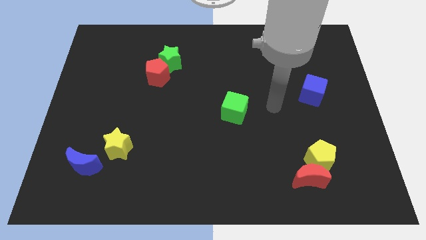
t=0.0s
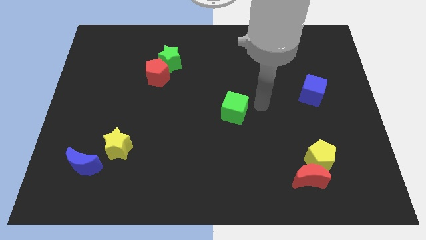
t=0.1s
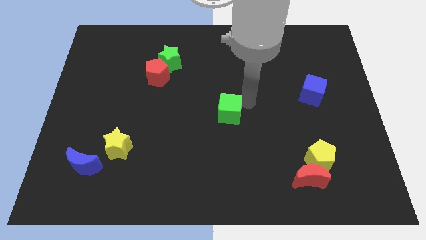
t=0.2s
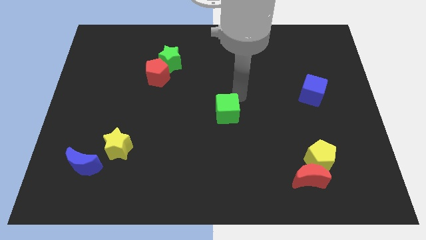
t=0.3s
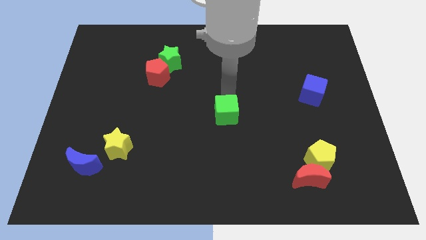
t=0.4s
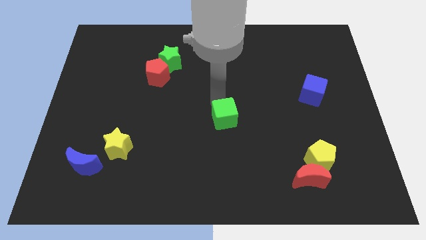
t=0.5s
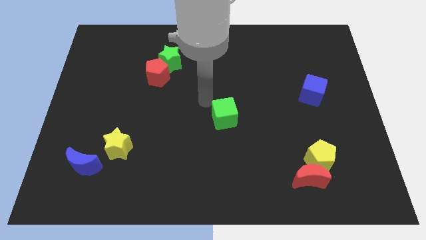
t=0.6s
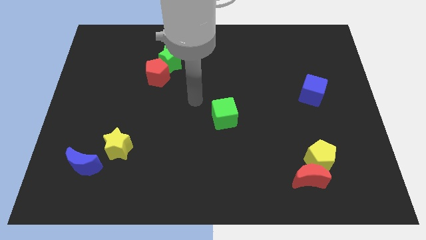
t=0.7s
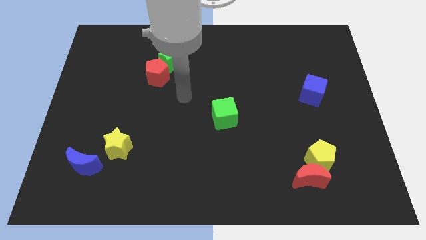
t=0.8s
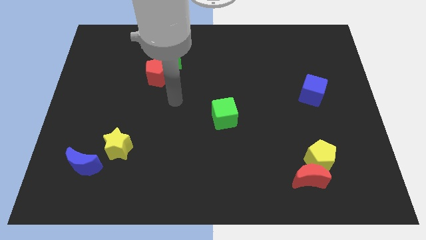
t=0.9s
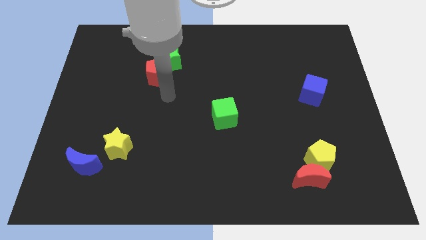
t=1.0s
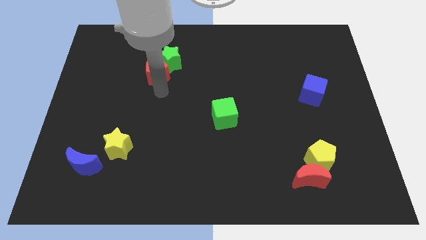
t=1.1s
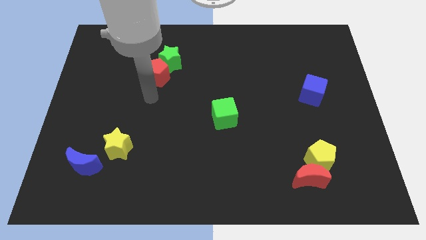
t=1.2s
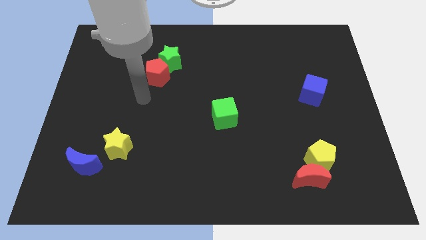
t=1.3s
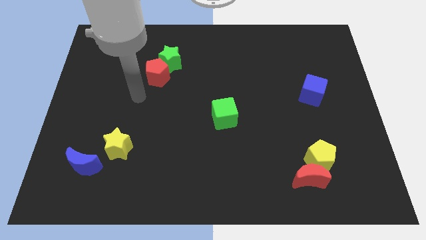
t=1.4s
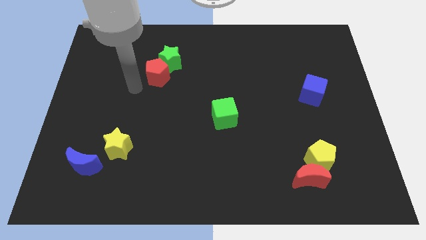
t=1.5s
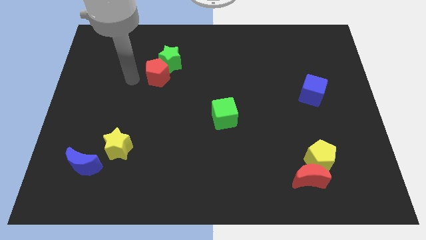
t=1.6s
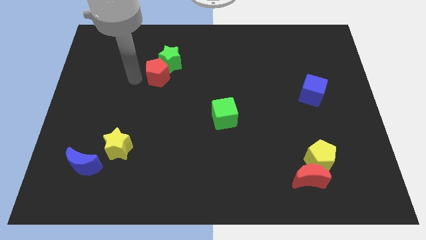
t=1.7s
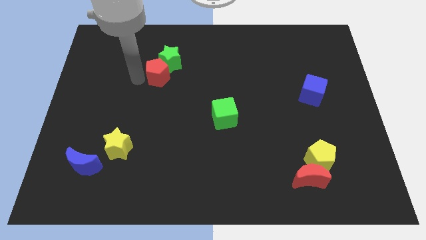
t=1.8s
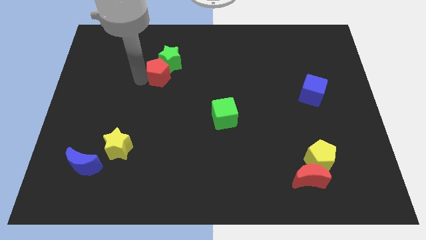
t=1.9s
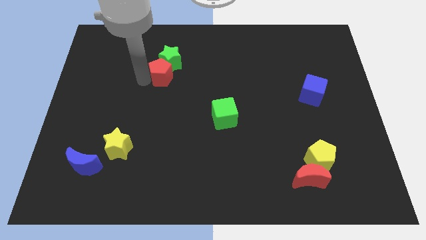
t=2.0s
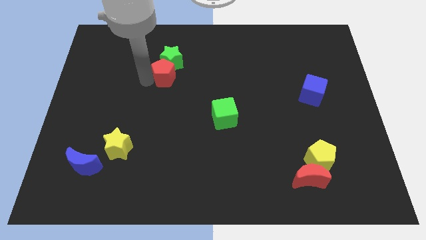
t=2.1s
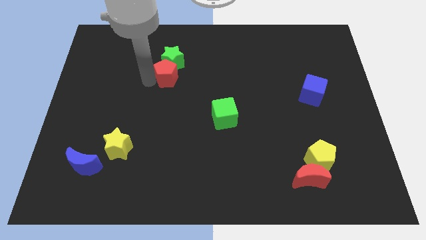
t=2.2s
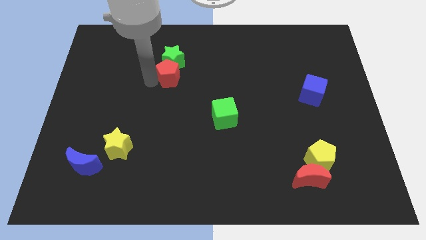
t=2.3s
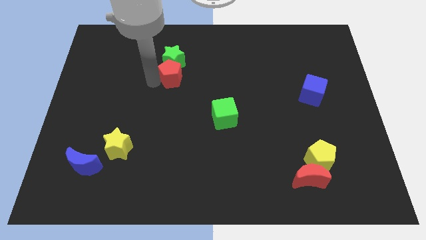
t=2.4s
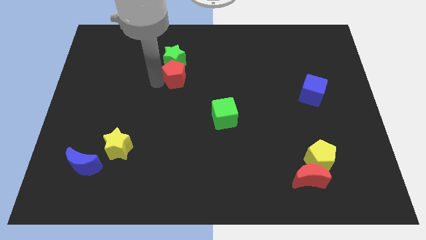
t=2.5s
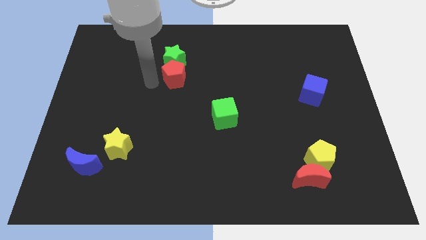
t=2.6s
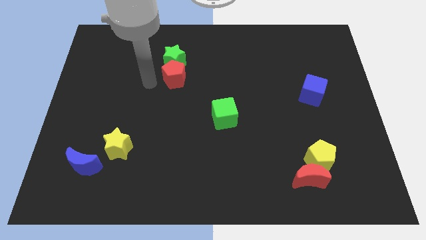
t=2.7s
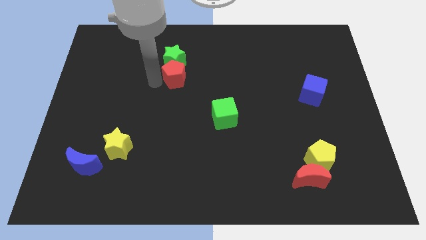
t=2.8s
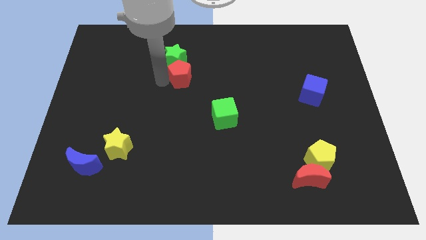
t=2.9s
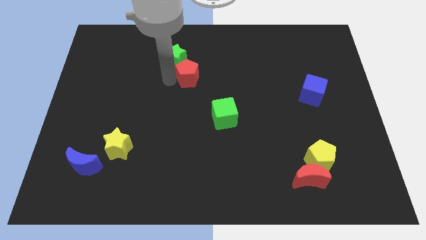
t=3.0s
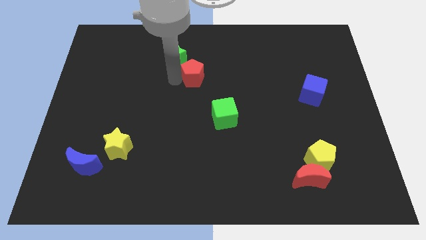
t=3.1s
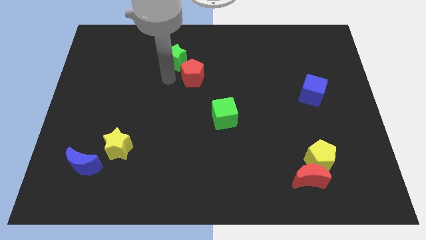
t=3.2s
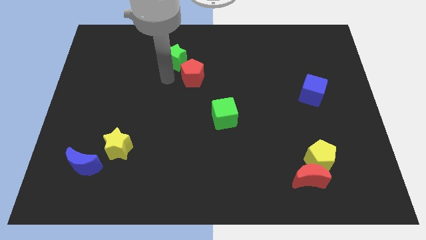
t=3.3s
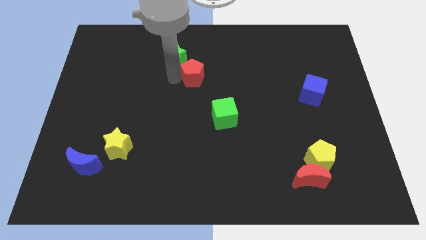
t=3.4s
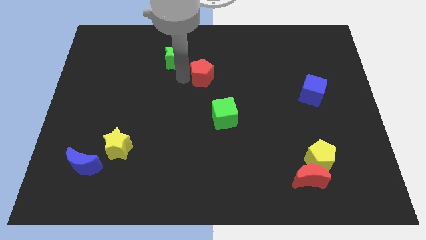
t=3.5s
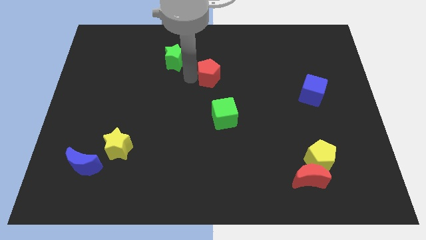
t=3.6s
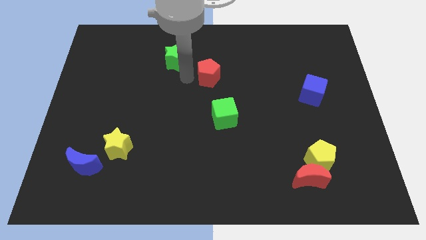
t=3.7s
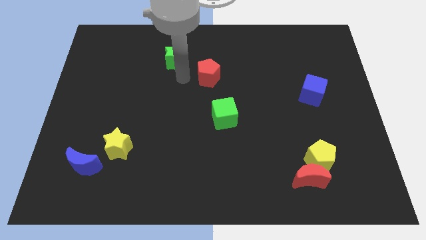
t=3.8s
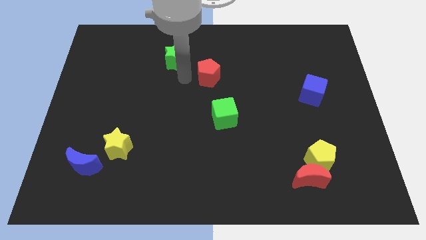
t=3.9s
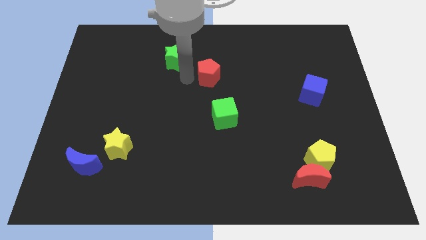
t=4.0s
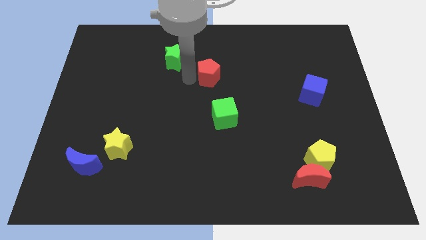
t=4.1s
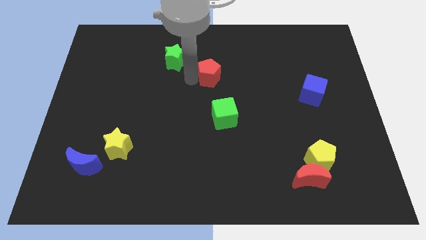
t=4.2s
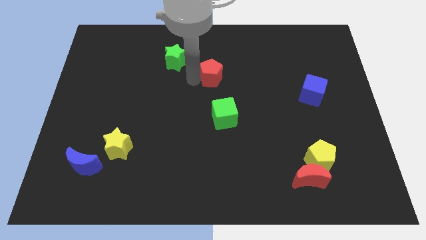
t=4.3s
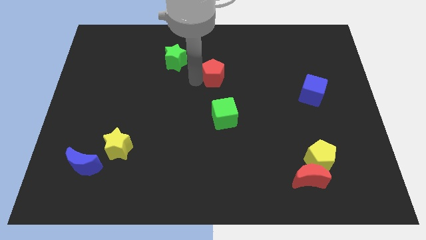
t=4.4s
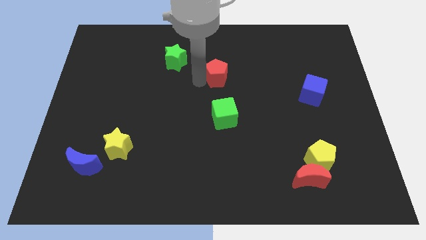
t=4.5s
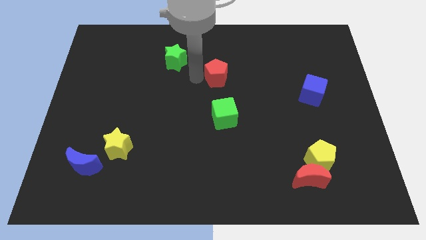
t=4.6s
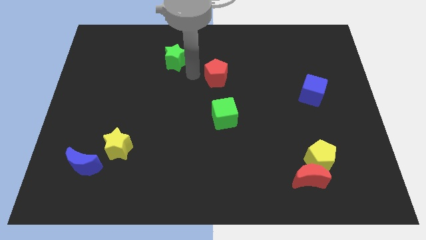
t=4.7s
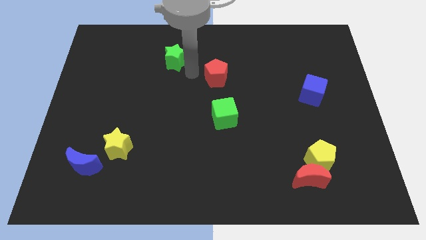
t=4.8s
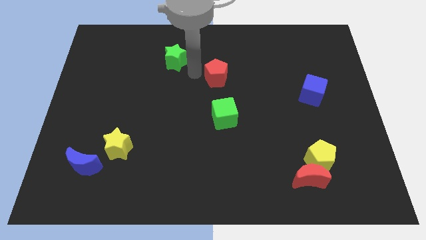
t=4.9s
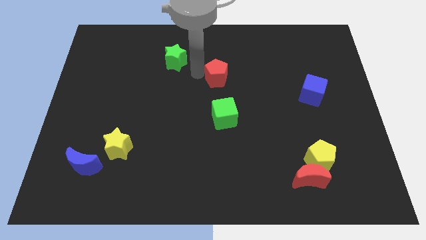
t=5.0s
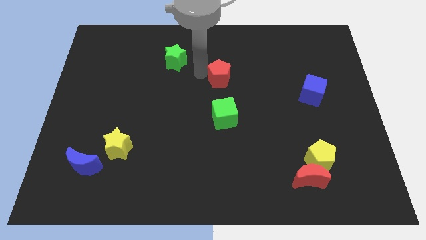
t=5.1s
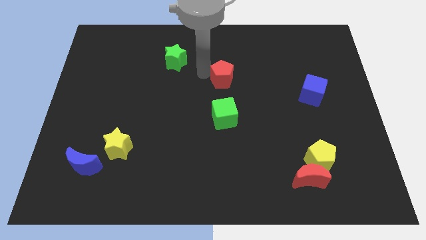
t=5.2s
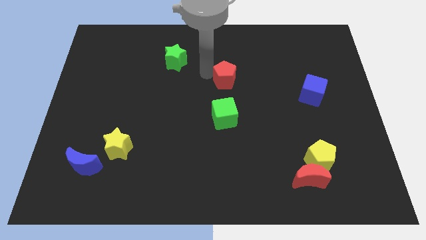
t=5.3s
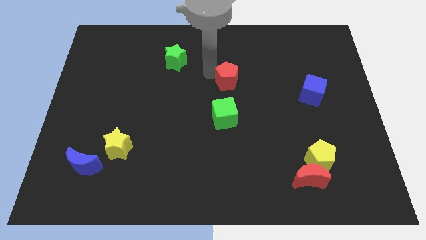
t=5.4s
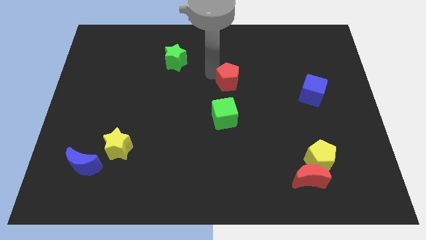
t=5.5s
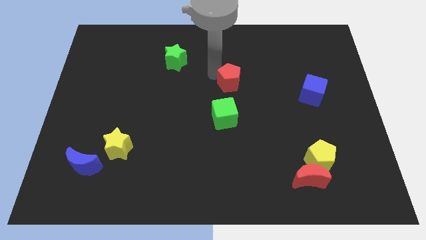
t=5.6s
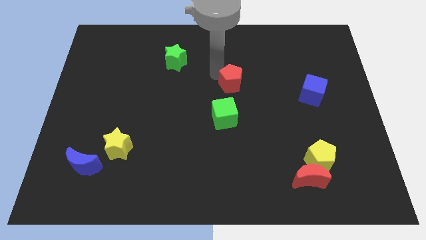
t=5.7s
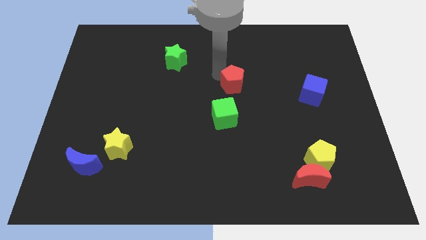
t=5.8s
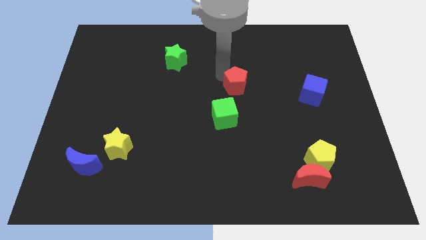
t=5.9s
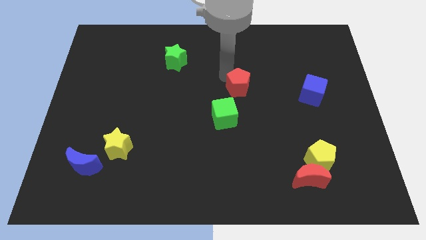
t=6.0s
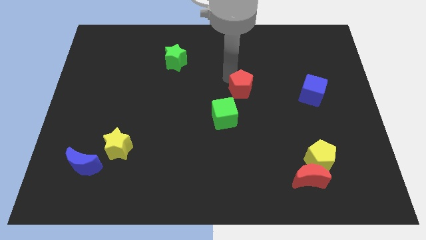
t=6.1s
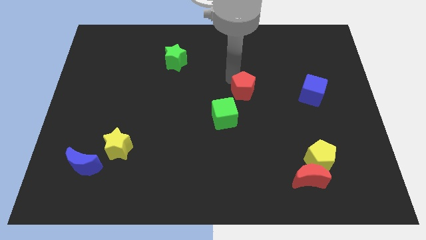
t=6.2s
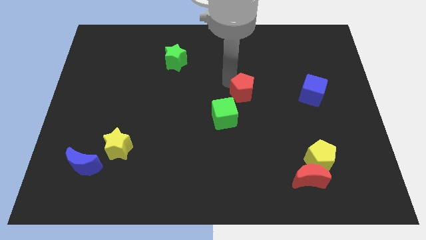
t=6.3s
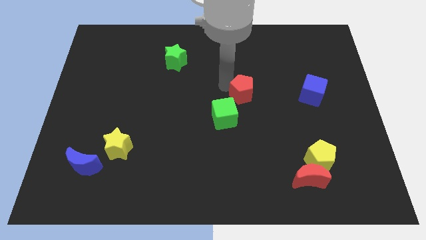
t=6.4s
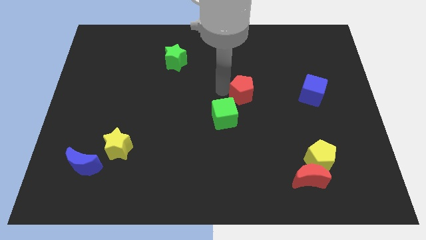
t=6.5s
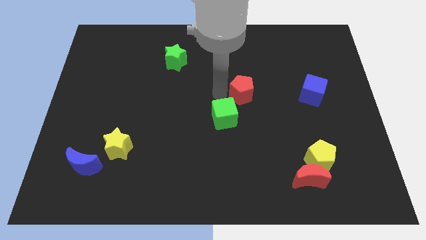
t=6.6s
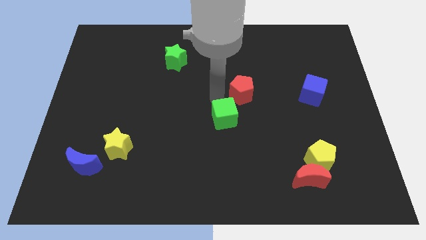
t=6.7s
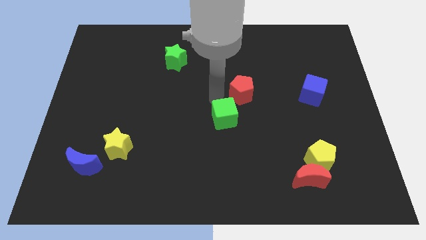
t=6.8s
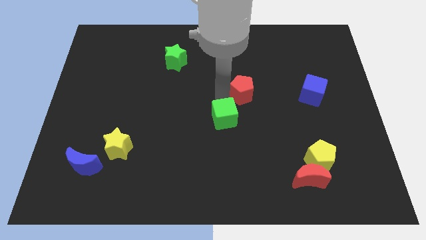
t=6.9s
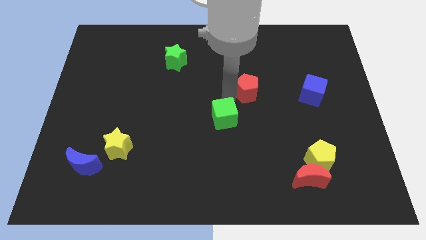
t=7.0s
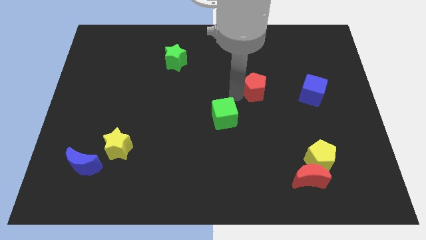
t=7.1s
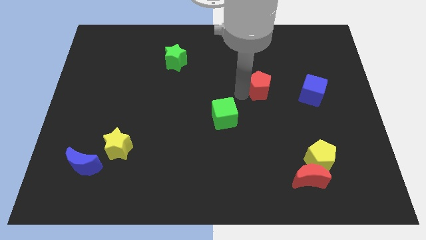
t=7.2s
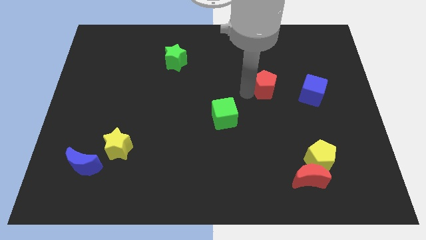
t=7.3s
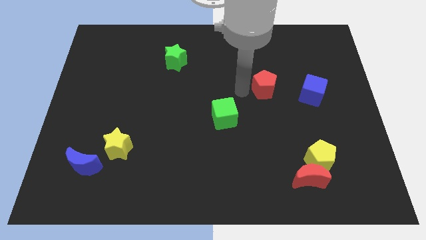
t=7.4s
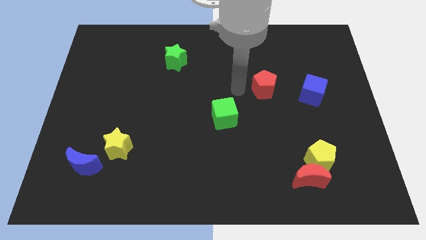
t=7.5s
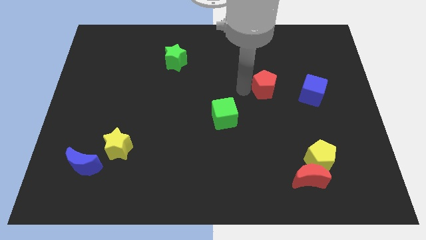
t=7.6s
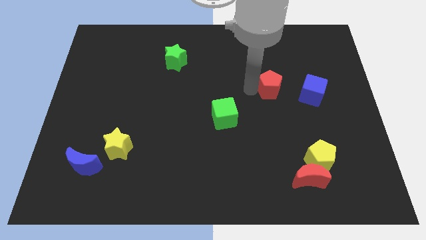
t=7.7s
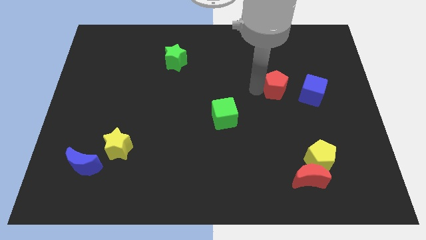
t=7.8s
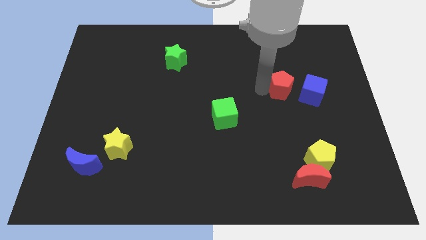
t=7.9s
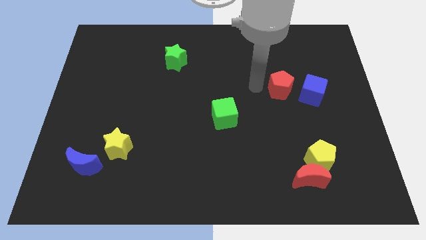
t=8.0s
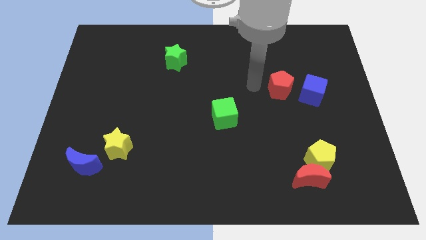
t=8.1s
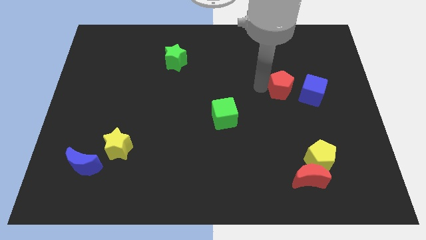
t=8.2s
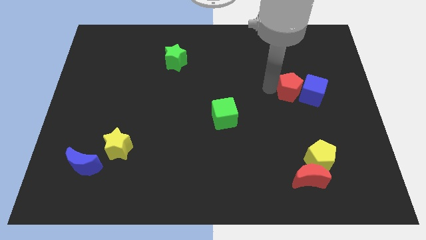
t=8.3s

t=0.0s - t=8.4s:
put the red pentagon next to the blue cube
